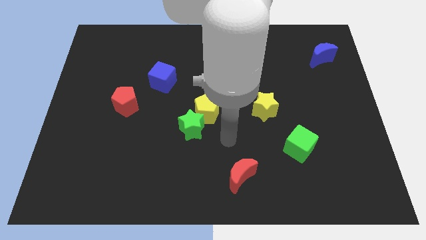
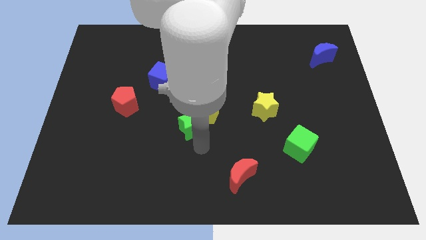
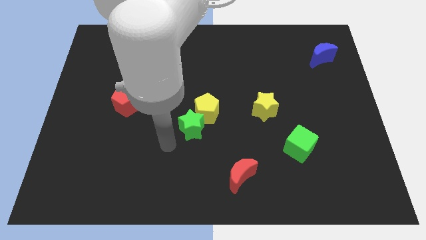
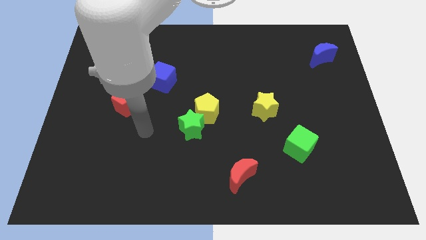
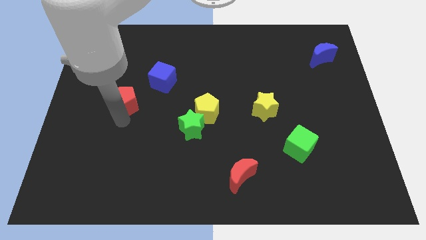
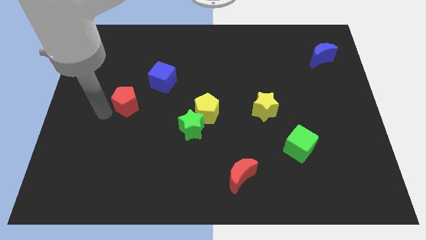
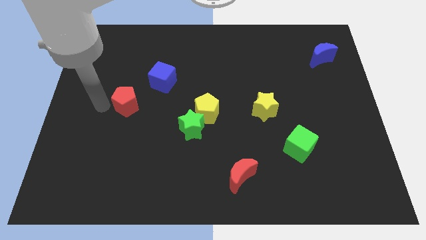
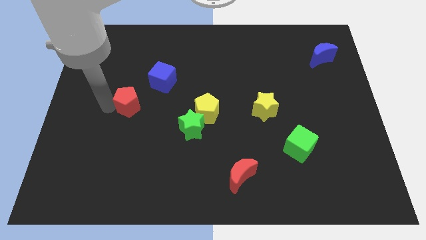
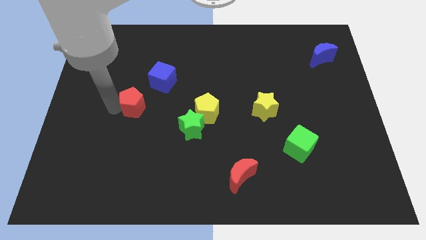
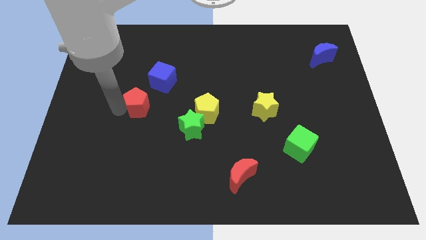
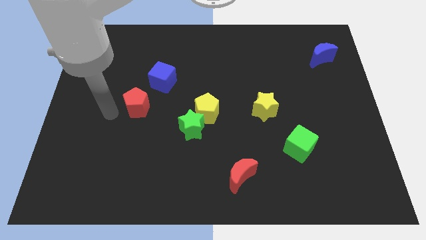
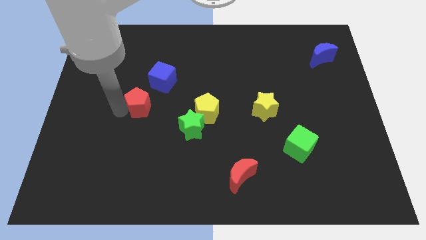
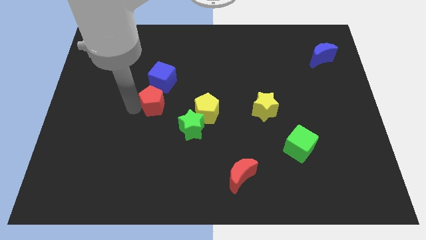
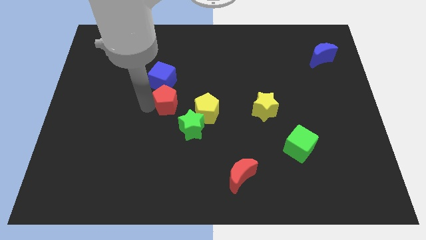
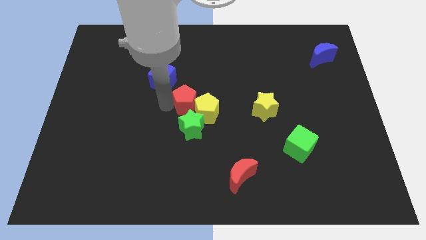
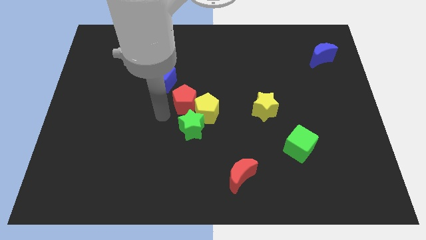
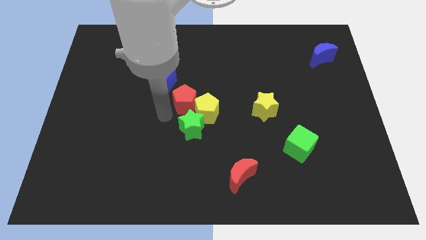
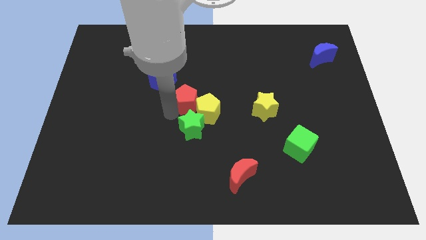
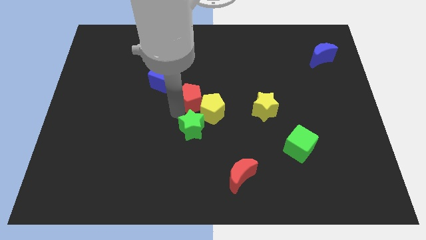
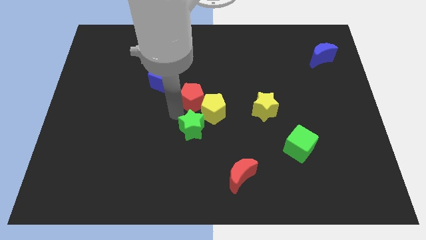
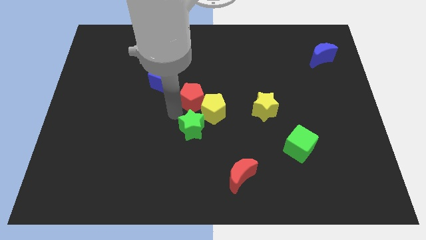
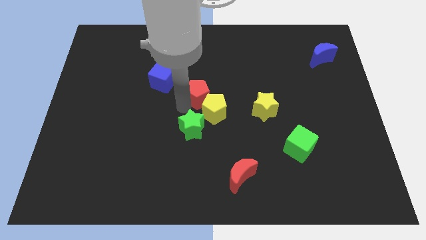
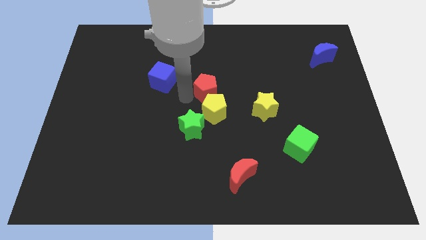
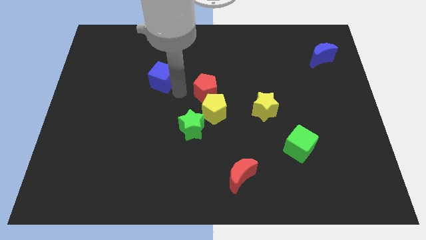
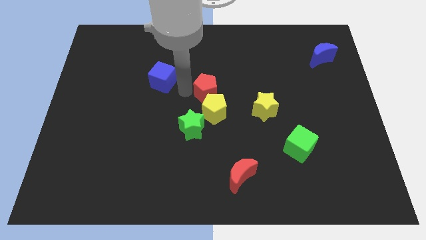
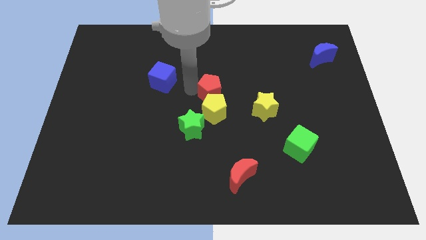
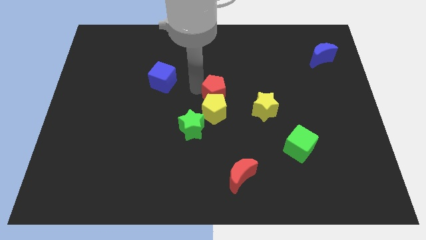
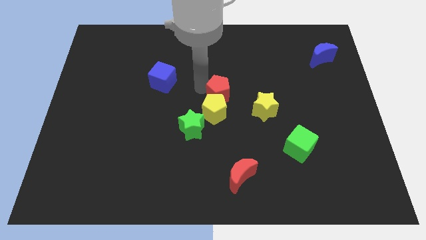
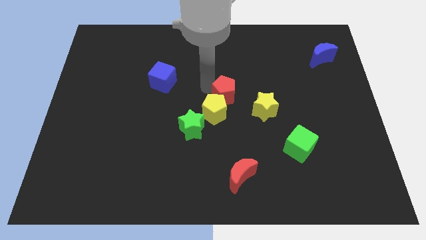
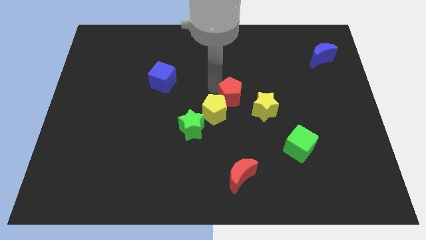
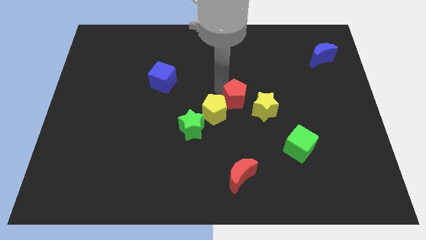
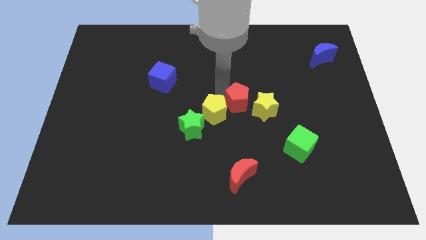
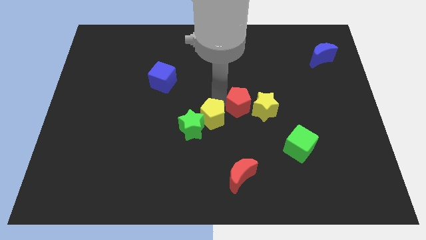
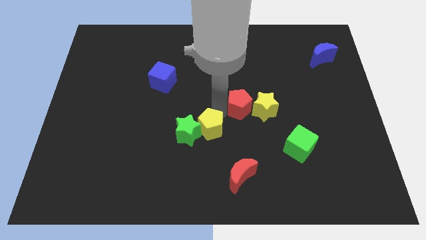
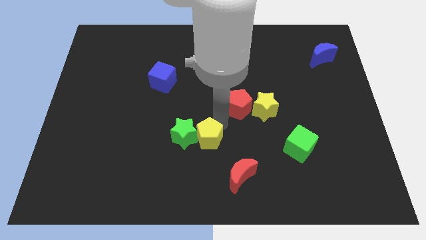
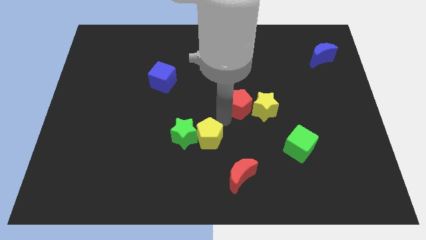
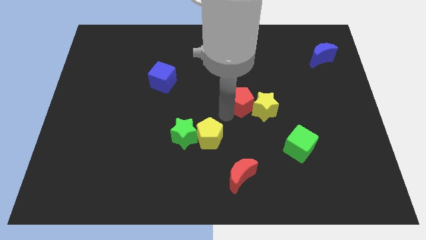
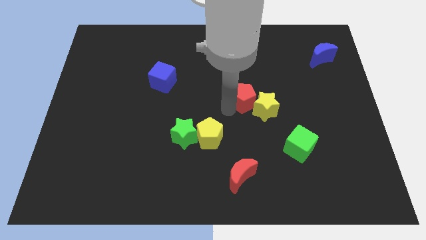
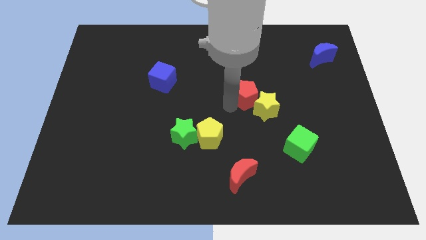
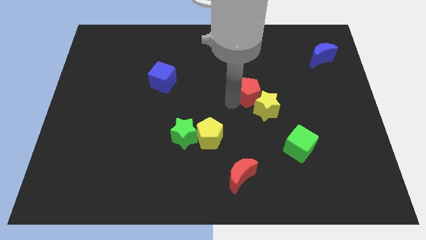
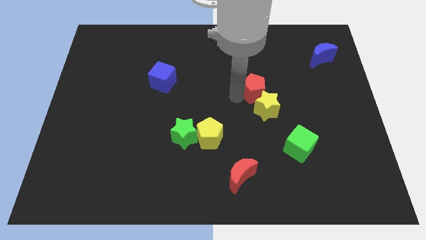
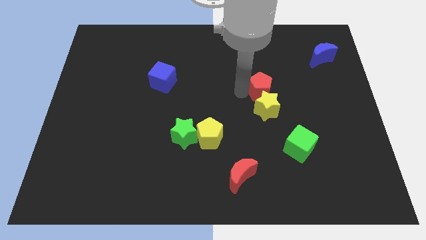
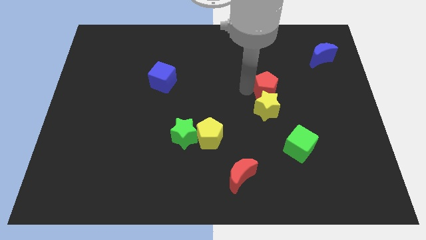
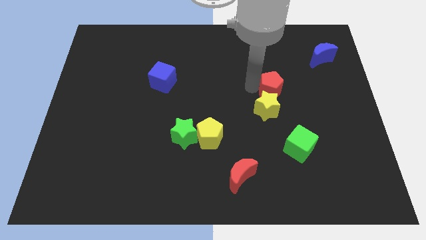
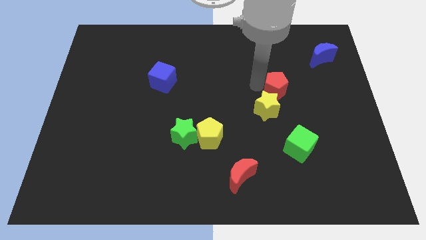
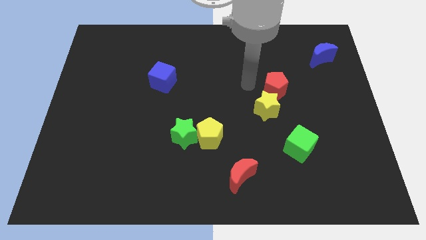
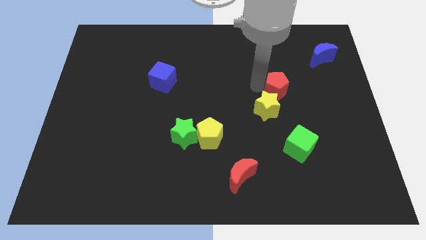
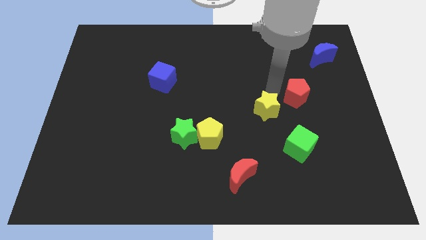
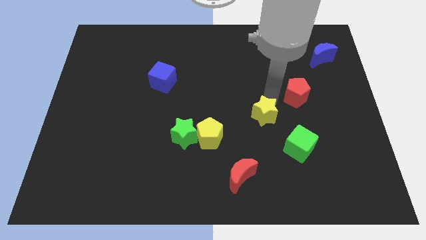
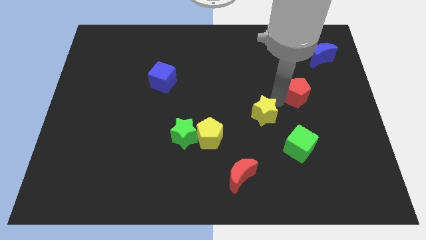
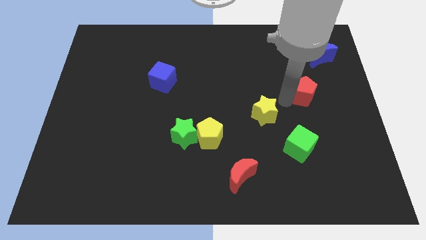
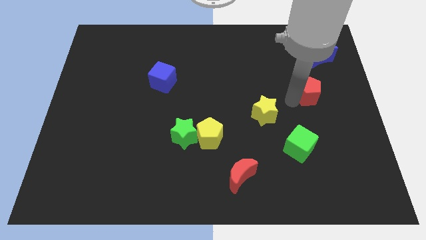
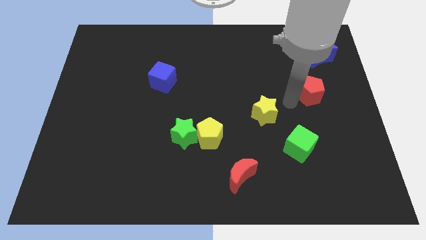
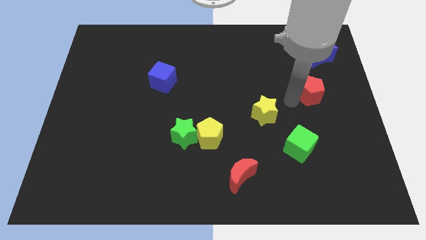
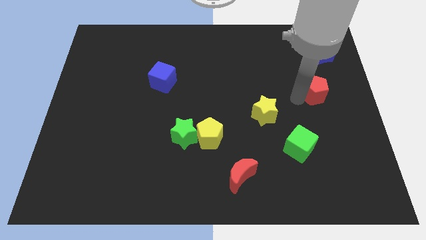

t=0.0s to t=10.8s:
put the red pentagon below the blue moon

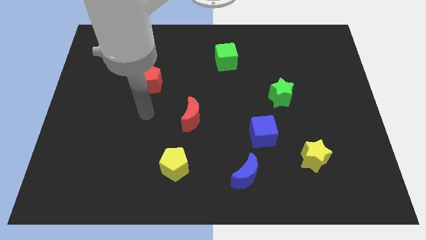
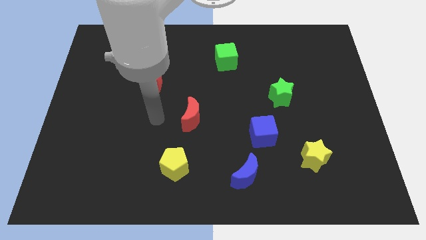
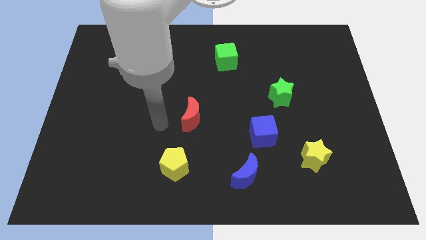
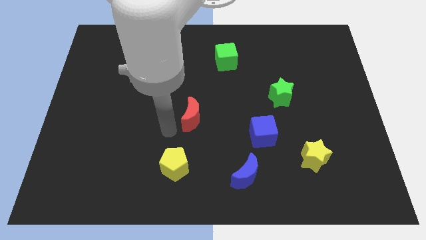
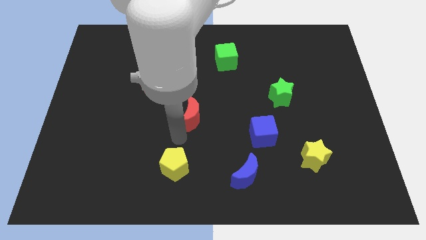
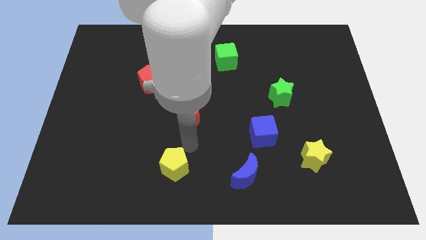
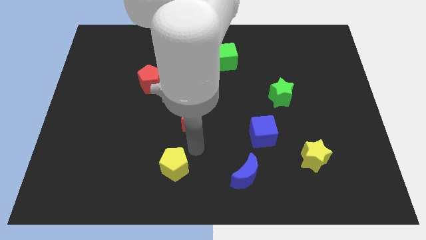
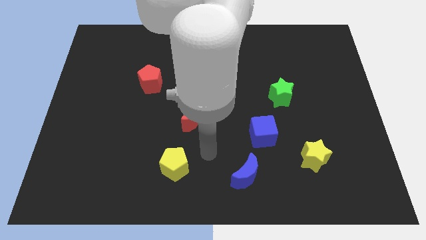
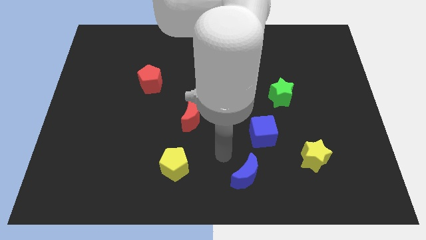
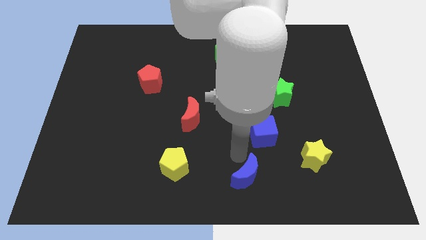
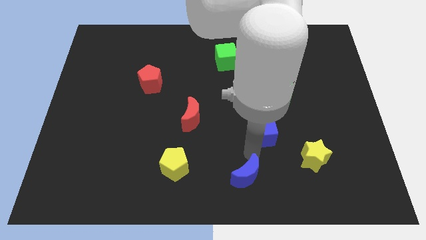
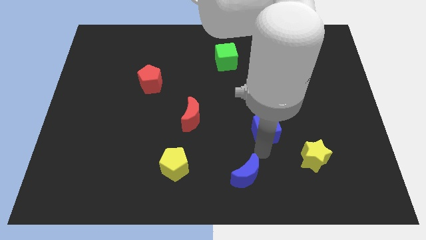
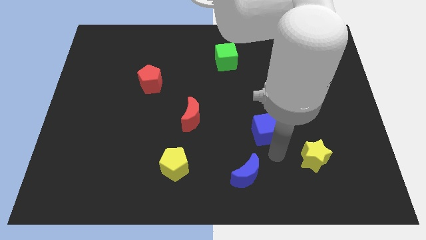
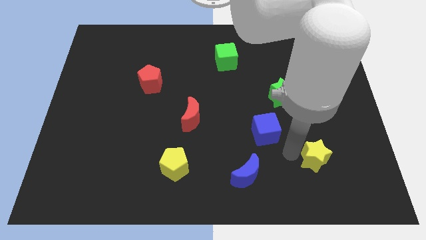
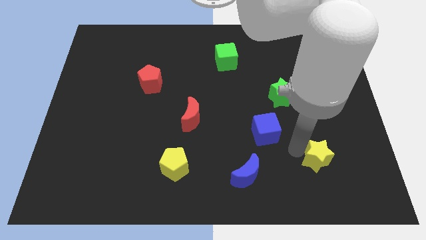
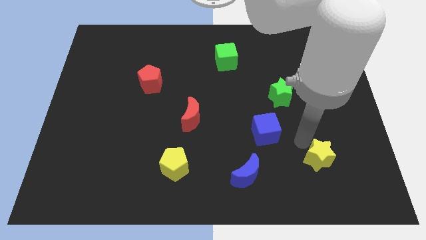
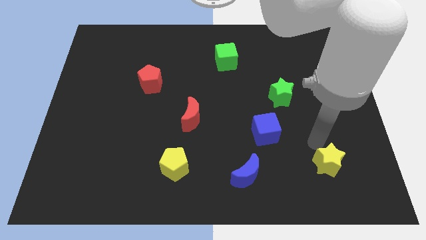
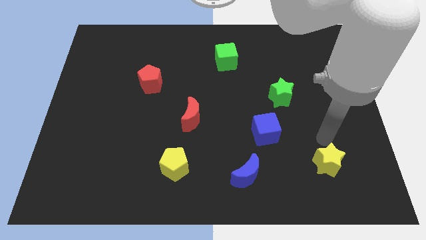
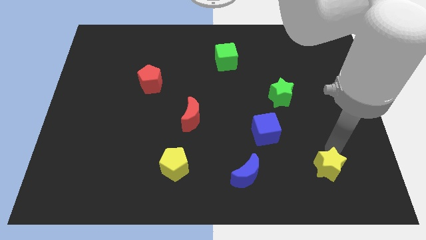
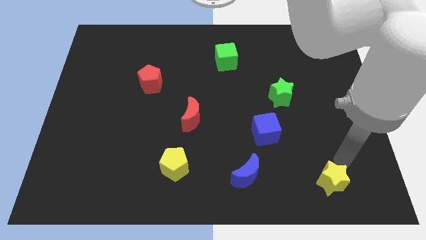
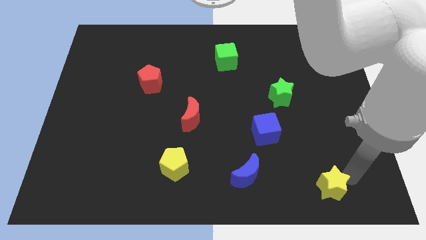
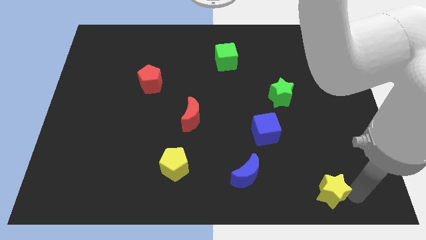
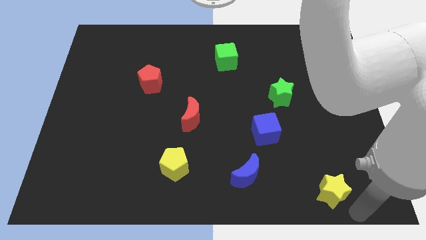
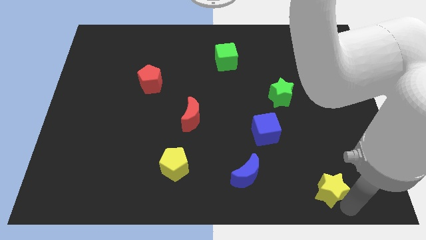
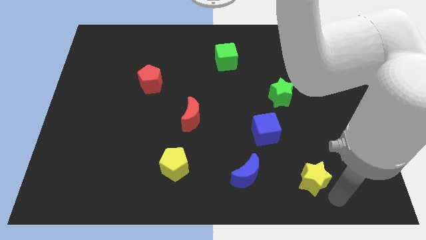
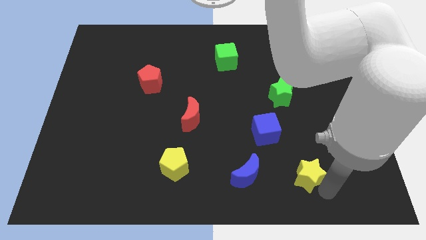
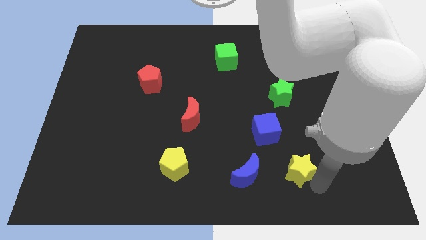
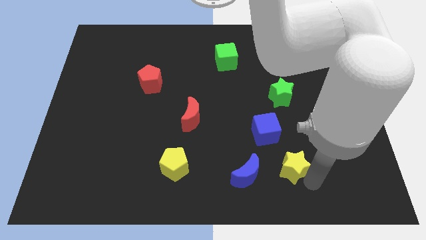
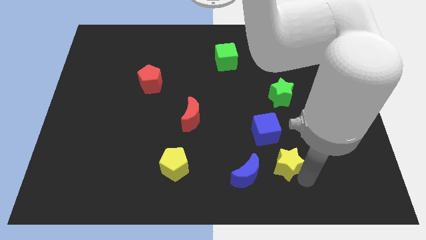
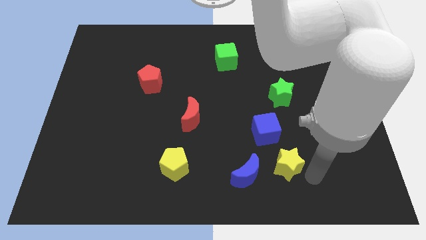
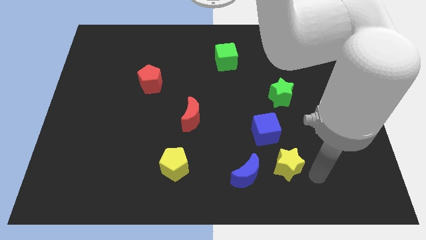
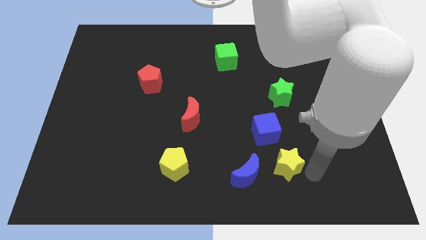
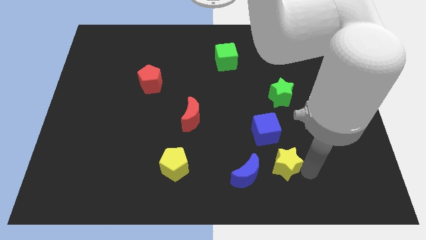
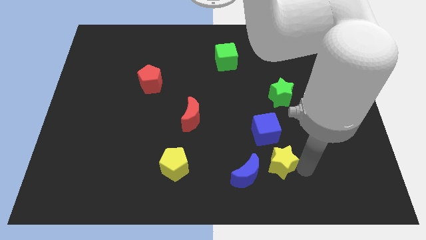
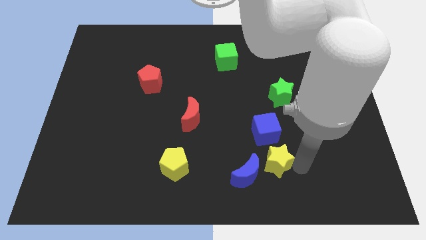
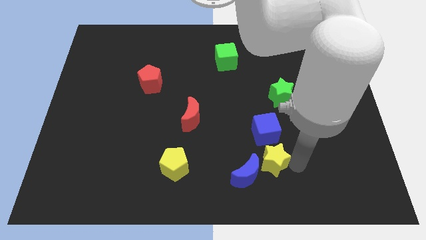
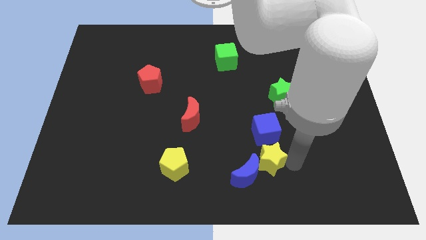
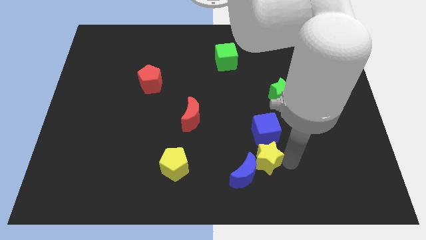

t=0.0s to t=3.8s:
put the yellow star to the bottom left of the blue cube
